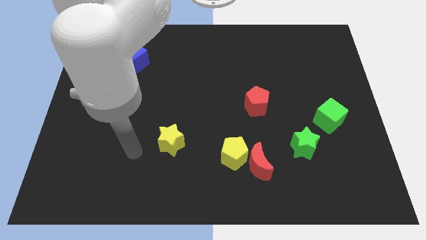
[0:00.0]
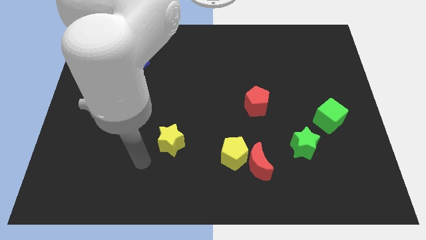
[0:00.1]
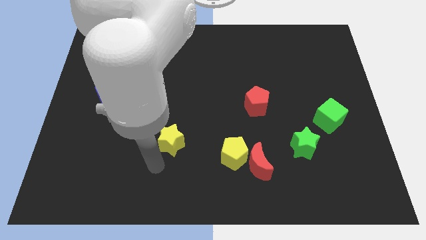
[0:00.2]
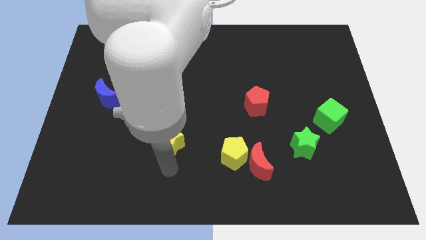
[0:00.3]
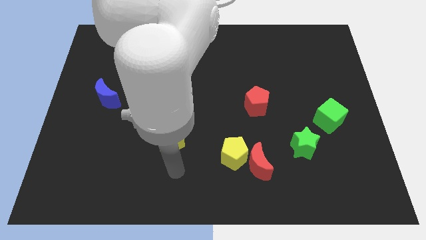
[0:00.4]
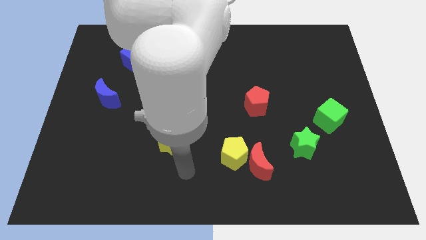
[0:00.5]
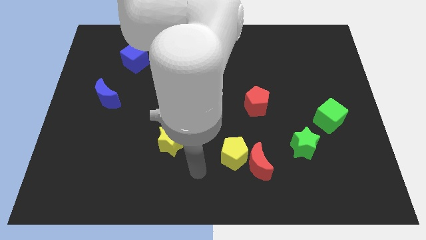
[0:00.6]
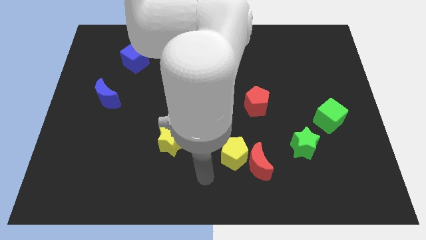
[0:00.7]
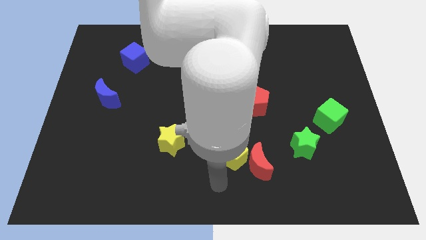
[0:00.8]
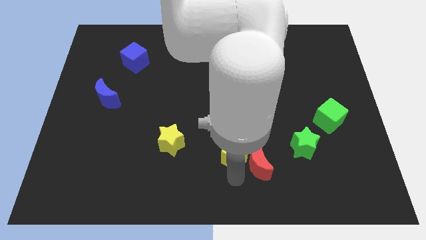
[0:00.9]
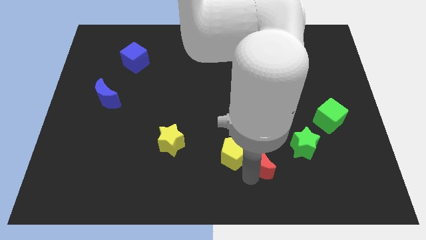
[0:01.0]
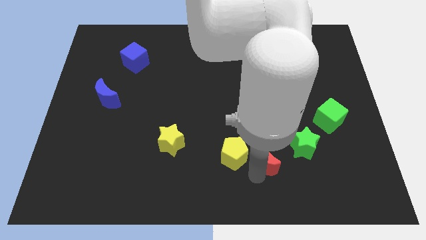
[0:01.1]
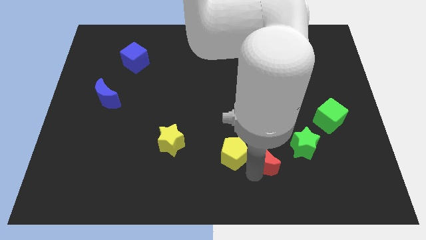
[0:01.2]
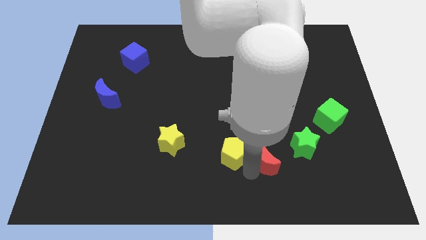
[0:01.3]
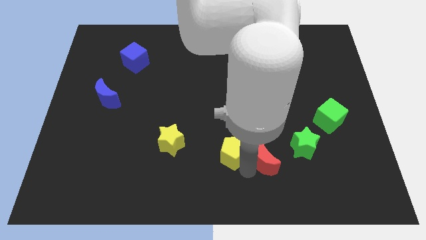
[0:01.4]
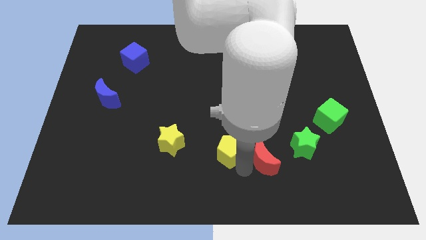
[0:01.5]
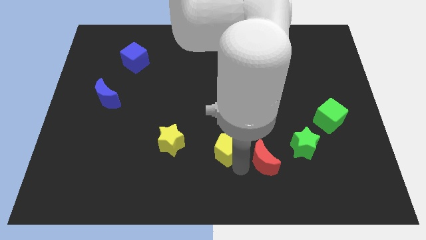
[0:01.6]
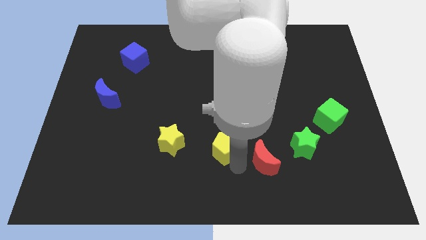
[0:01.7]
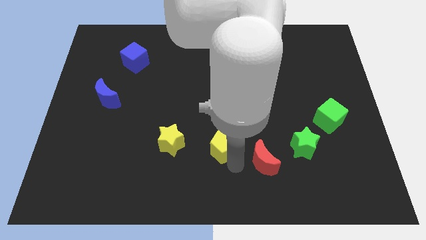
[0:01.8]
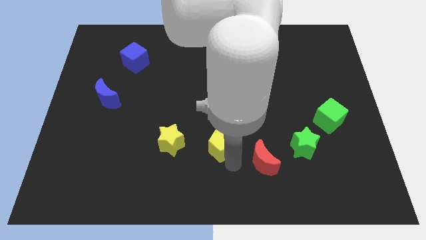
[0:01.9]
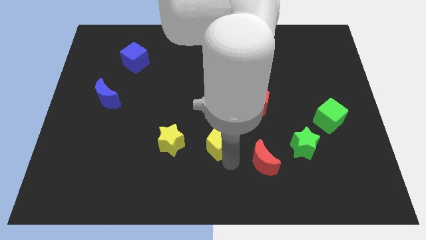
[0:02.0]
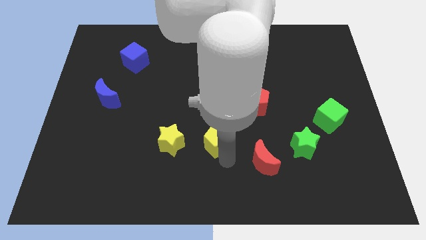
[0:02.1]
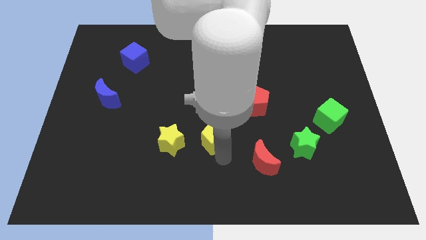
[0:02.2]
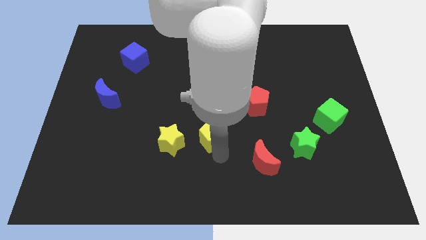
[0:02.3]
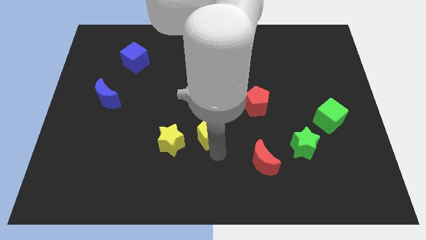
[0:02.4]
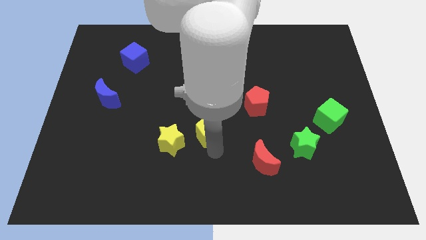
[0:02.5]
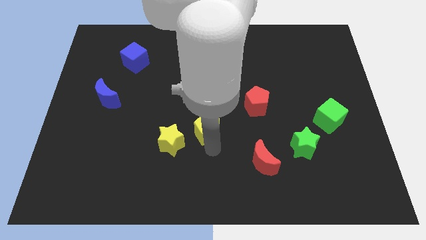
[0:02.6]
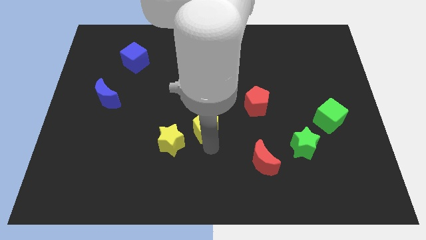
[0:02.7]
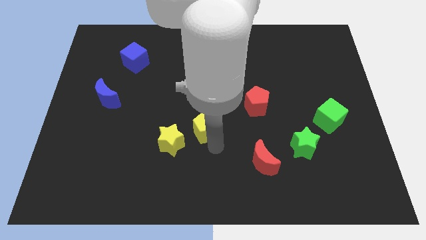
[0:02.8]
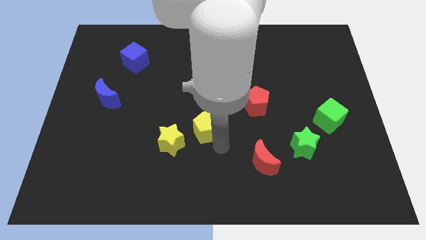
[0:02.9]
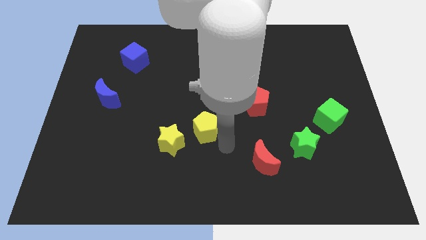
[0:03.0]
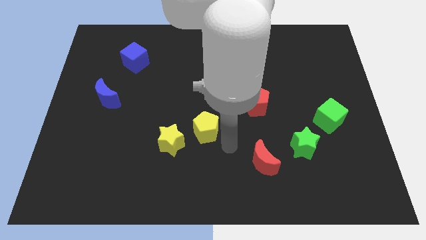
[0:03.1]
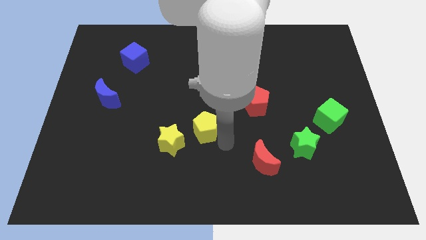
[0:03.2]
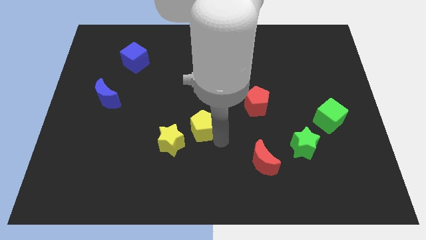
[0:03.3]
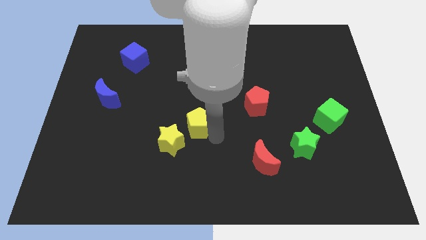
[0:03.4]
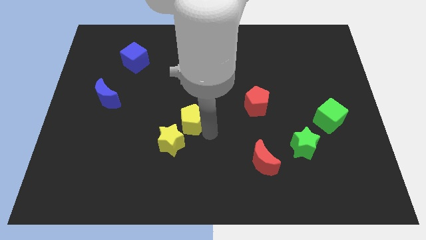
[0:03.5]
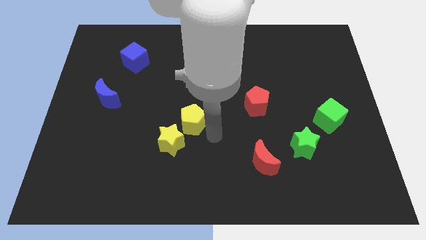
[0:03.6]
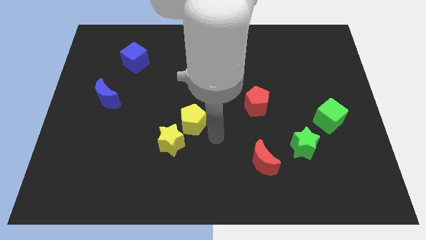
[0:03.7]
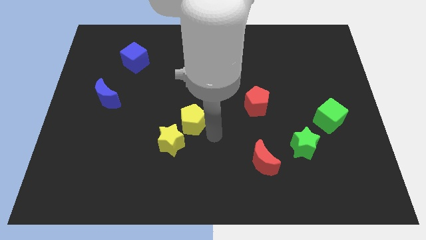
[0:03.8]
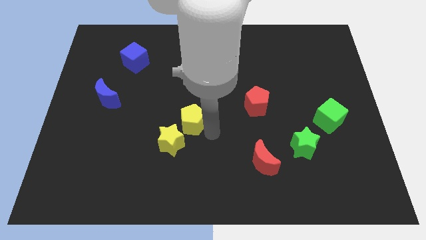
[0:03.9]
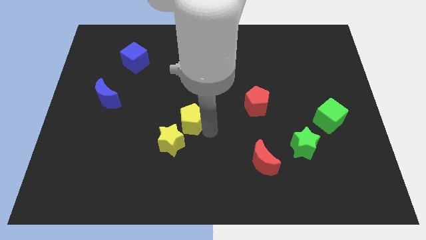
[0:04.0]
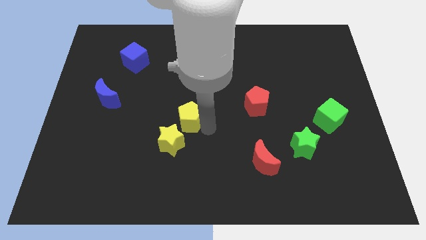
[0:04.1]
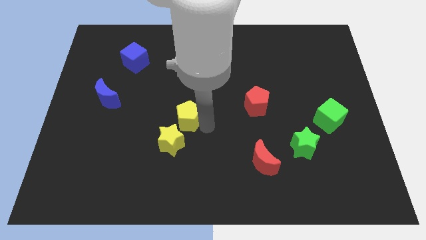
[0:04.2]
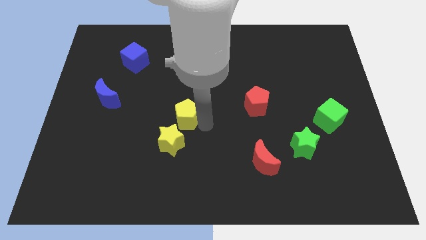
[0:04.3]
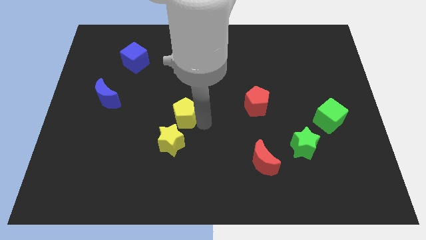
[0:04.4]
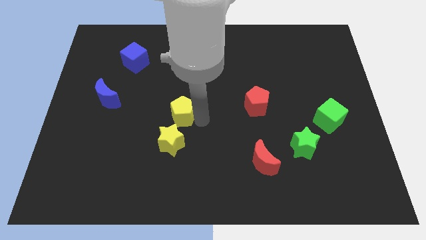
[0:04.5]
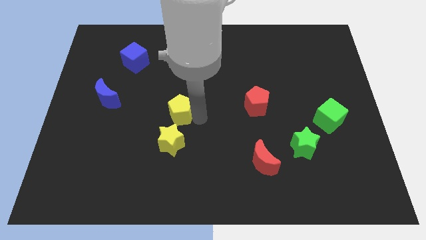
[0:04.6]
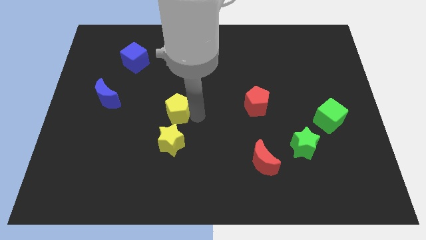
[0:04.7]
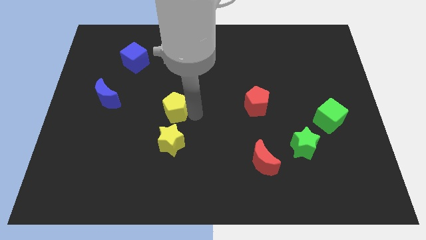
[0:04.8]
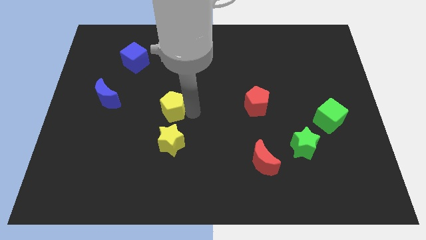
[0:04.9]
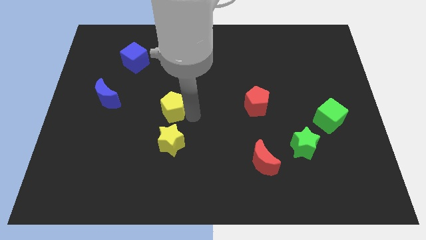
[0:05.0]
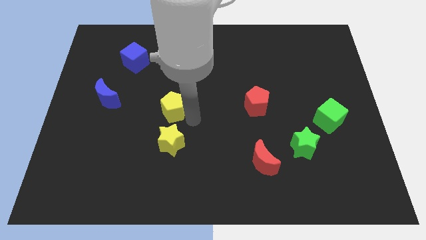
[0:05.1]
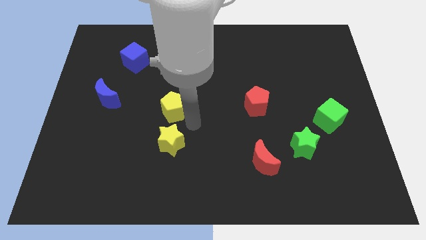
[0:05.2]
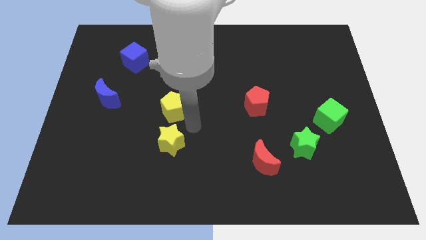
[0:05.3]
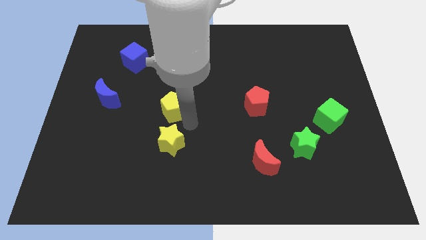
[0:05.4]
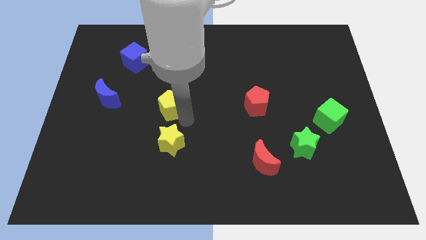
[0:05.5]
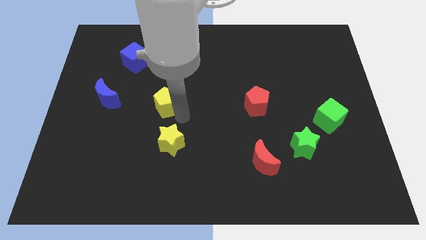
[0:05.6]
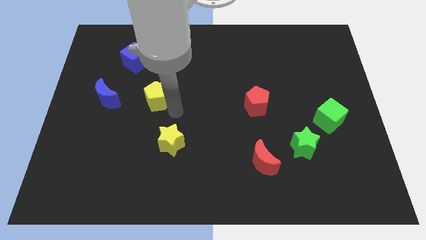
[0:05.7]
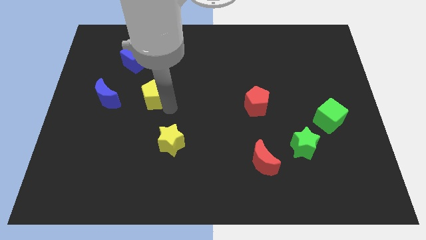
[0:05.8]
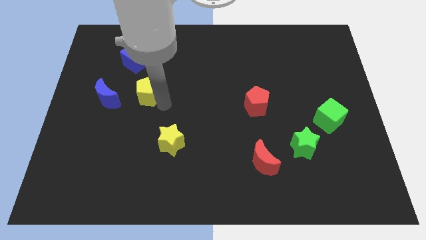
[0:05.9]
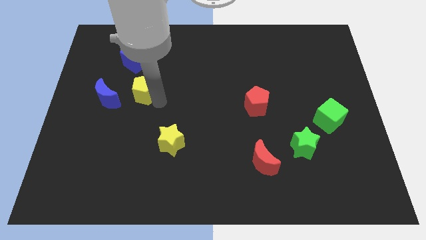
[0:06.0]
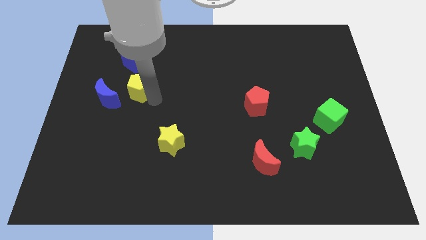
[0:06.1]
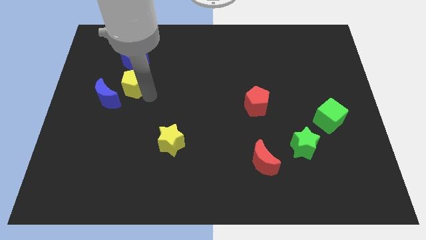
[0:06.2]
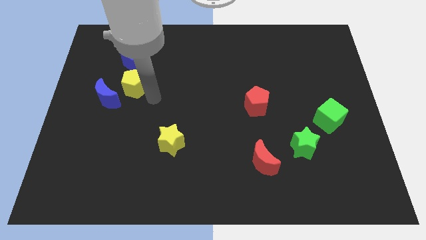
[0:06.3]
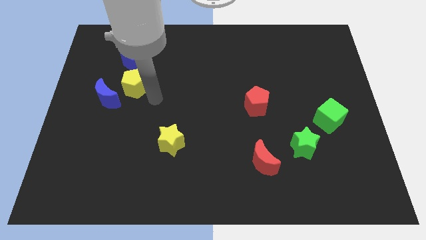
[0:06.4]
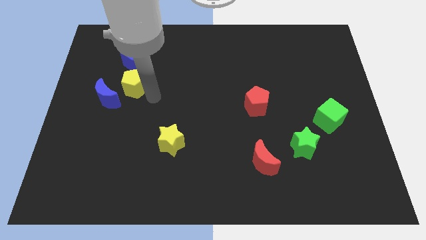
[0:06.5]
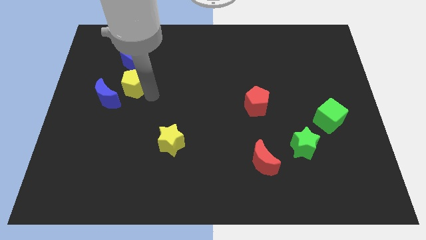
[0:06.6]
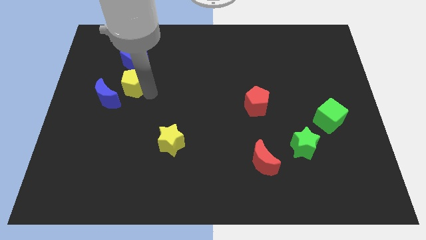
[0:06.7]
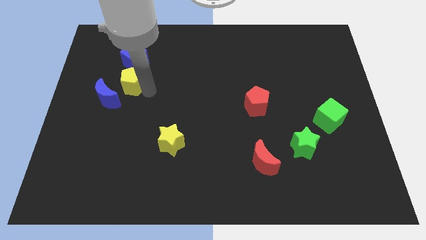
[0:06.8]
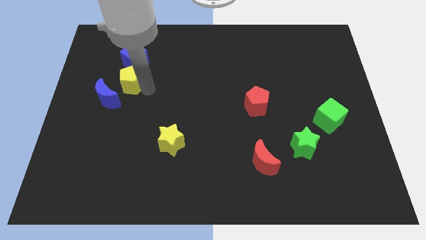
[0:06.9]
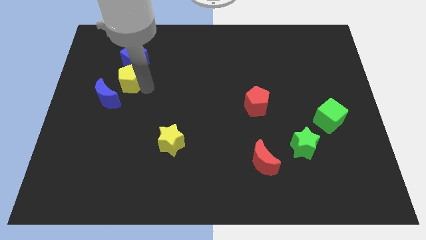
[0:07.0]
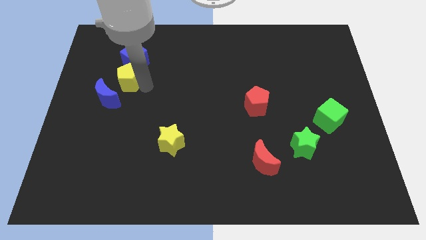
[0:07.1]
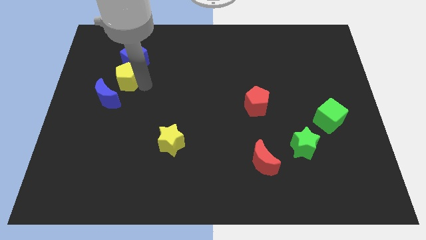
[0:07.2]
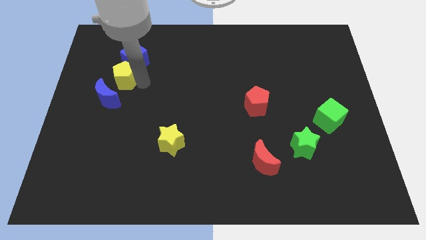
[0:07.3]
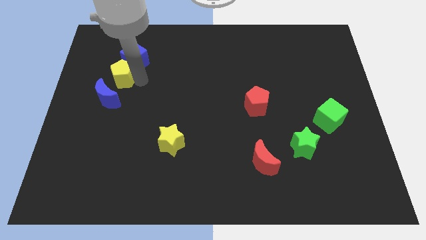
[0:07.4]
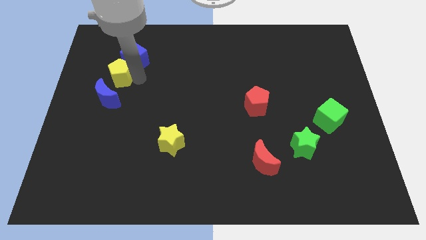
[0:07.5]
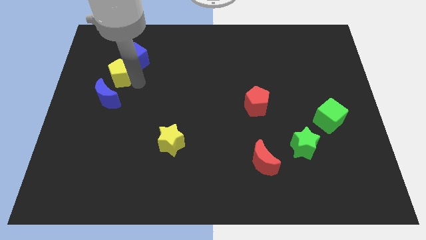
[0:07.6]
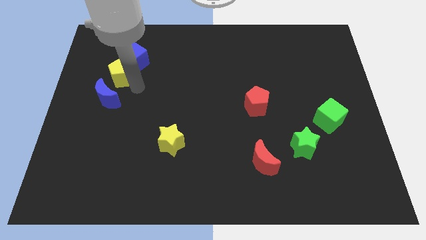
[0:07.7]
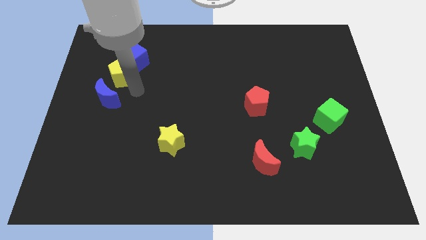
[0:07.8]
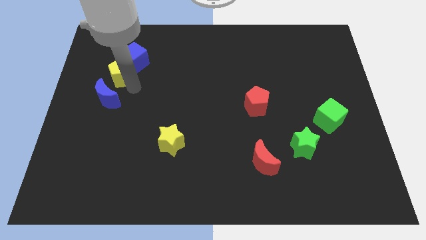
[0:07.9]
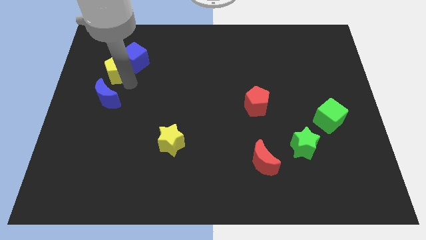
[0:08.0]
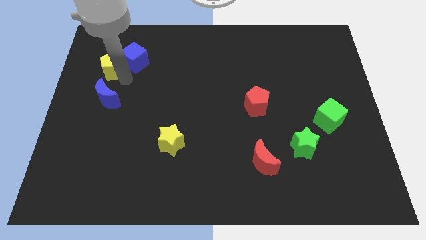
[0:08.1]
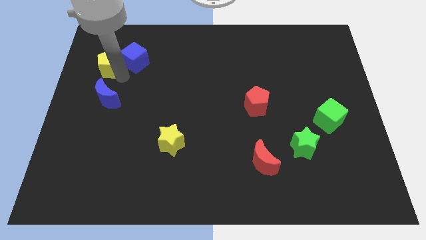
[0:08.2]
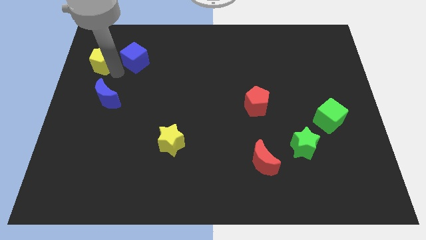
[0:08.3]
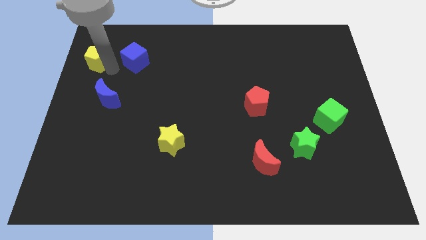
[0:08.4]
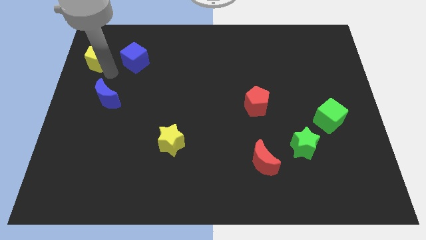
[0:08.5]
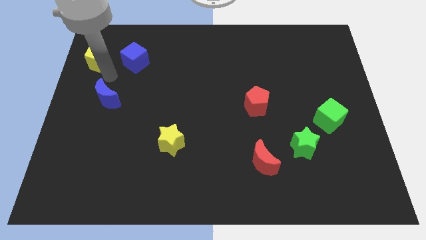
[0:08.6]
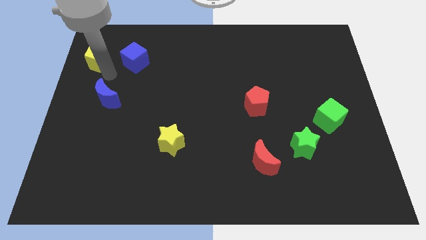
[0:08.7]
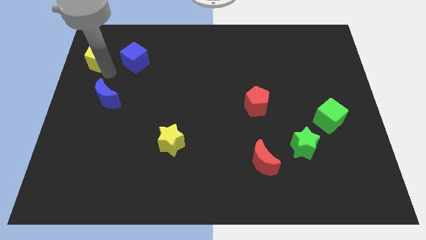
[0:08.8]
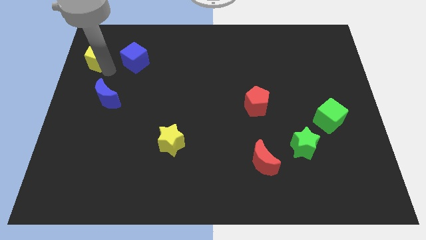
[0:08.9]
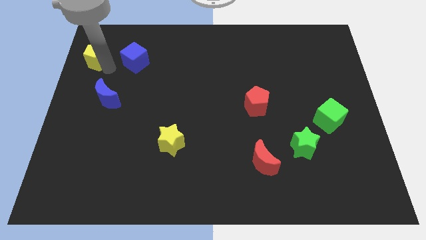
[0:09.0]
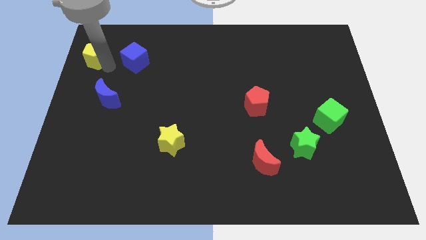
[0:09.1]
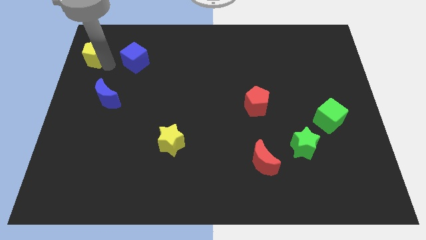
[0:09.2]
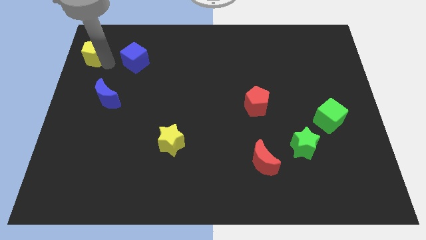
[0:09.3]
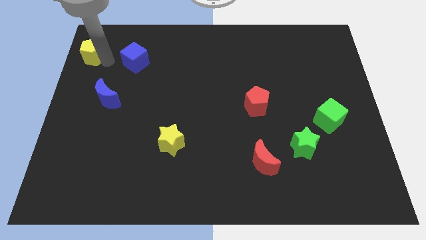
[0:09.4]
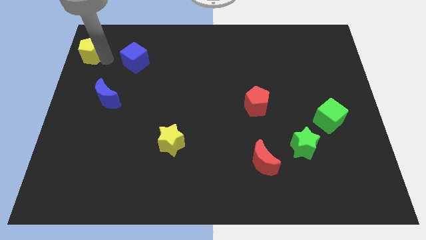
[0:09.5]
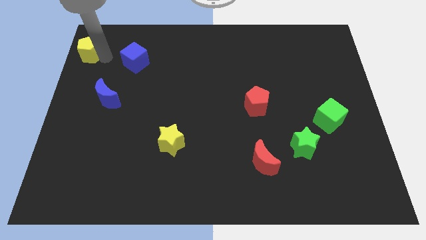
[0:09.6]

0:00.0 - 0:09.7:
push the yellow pentagon to the top left corner
